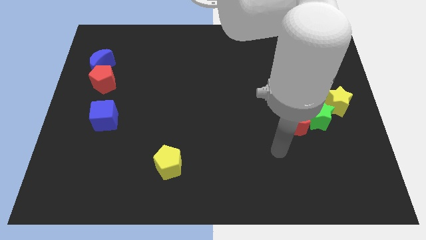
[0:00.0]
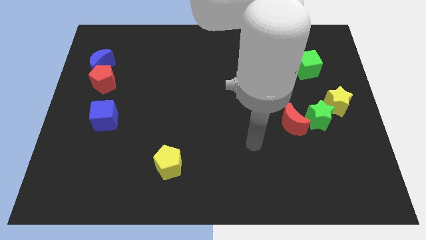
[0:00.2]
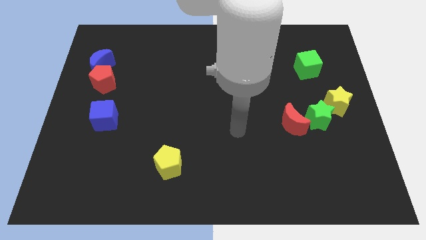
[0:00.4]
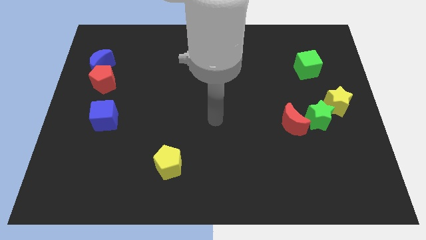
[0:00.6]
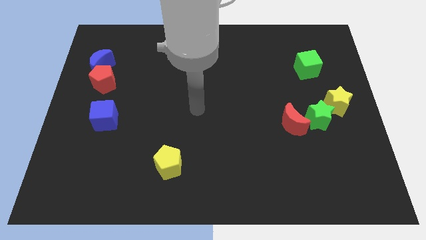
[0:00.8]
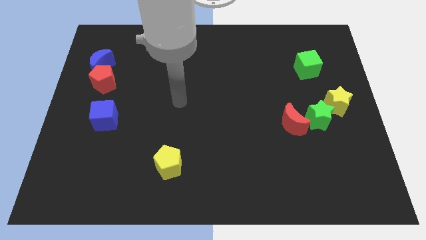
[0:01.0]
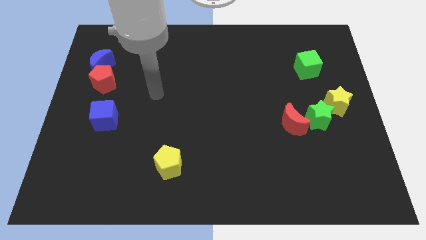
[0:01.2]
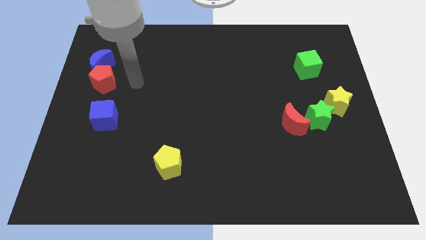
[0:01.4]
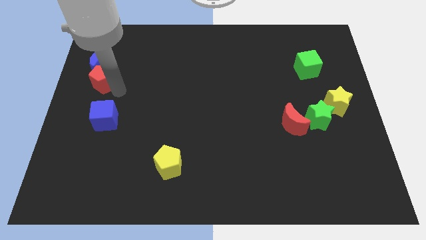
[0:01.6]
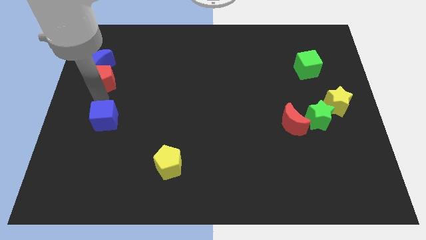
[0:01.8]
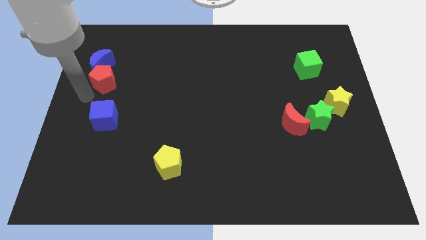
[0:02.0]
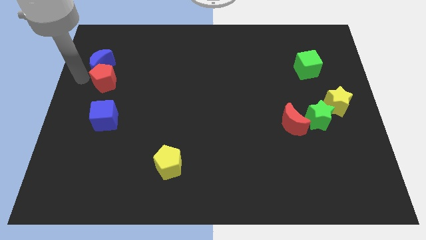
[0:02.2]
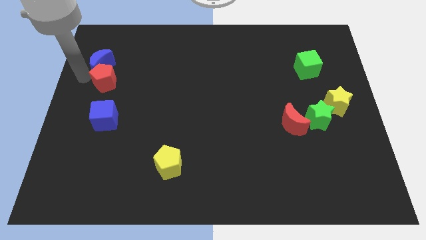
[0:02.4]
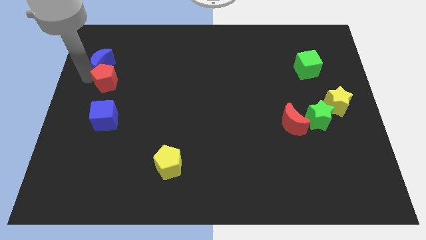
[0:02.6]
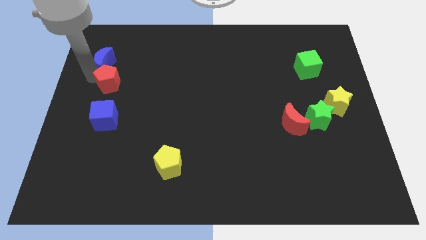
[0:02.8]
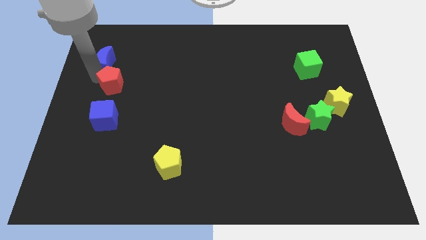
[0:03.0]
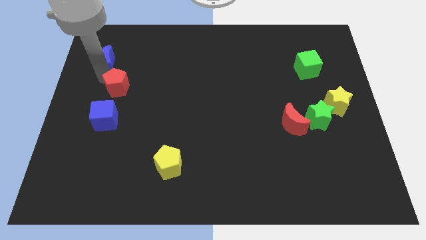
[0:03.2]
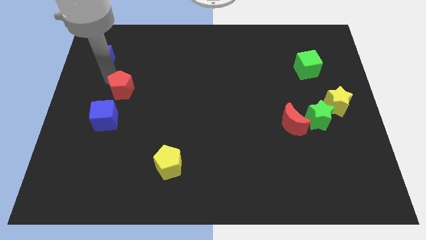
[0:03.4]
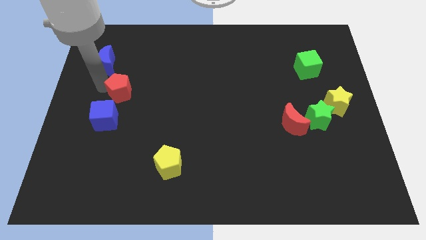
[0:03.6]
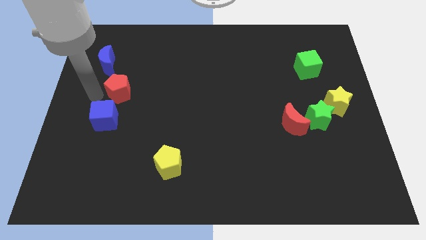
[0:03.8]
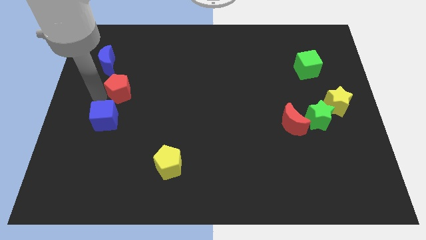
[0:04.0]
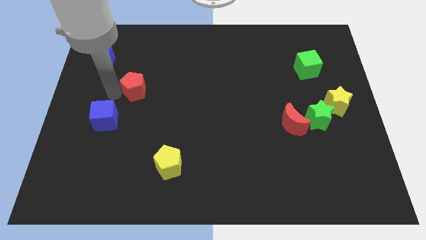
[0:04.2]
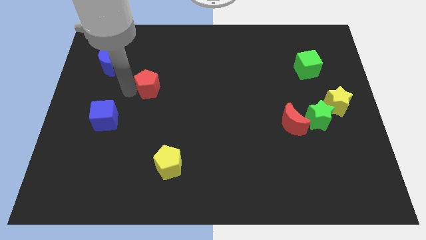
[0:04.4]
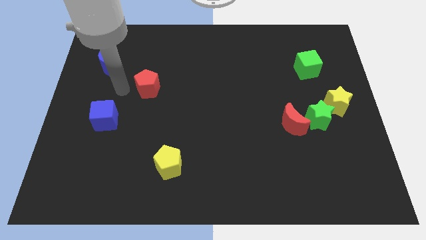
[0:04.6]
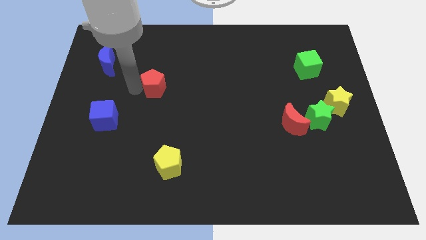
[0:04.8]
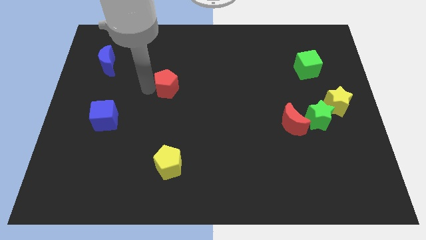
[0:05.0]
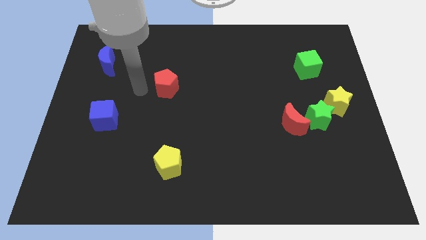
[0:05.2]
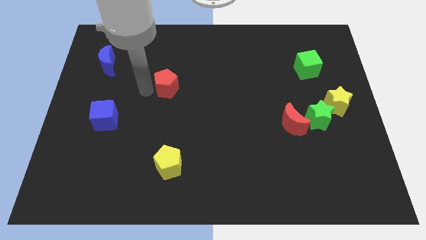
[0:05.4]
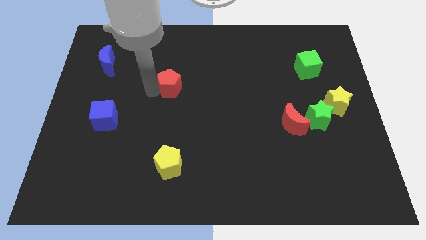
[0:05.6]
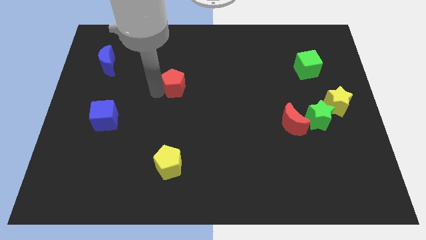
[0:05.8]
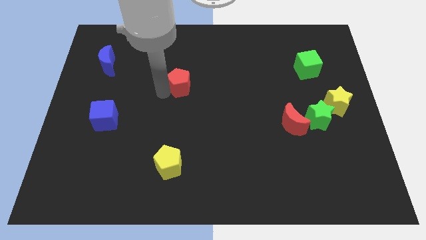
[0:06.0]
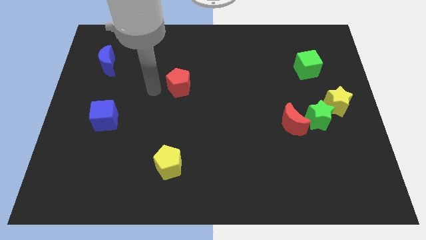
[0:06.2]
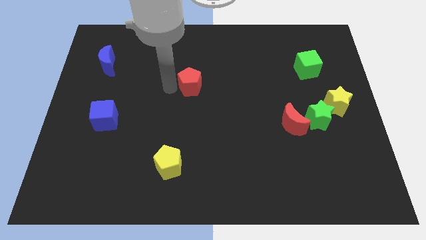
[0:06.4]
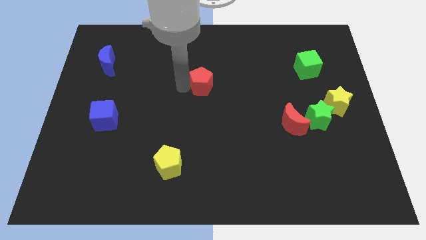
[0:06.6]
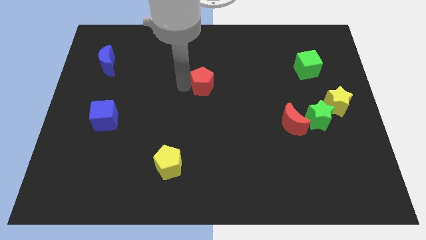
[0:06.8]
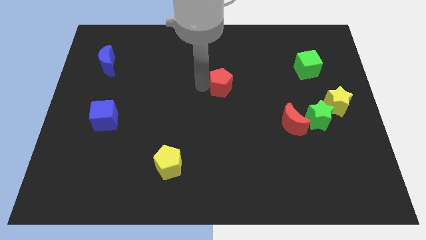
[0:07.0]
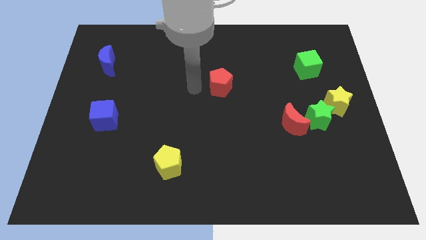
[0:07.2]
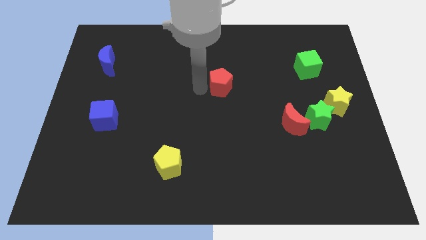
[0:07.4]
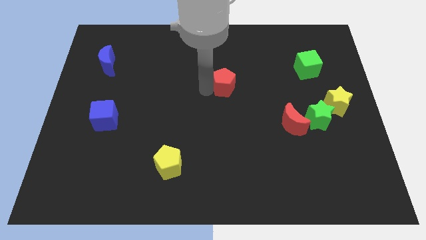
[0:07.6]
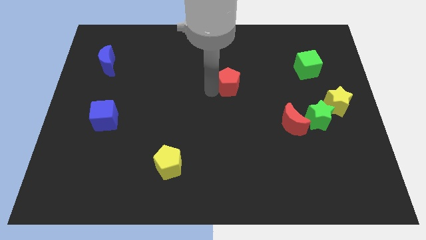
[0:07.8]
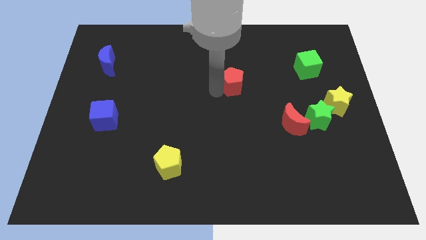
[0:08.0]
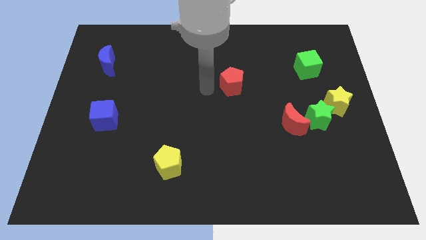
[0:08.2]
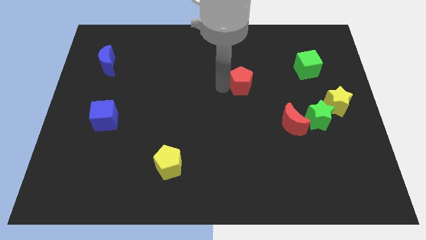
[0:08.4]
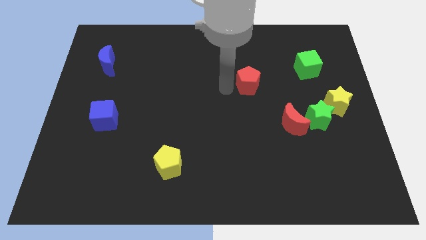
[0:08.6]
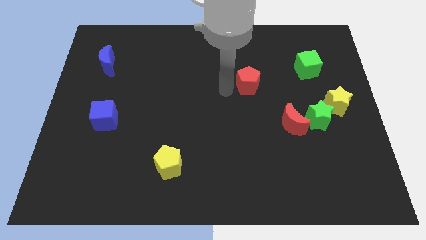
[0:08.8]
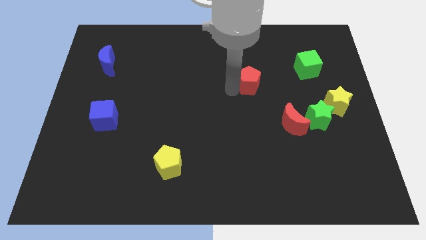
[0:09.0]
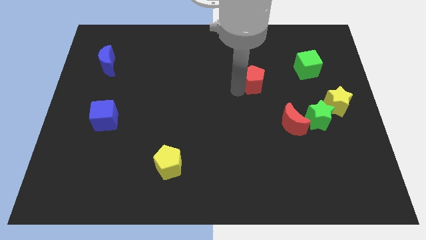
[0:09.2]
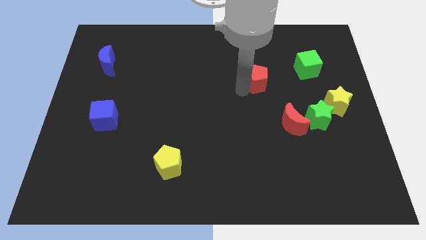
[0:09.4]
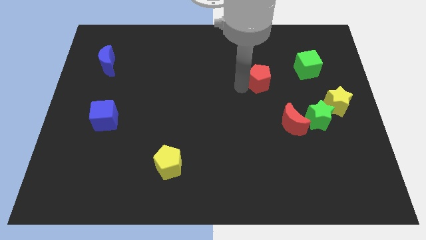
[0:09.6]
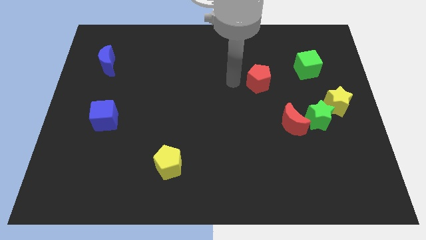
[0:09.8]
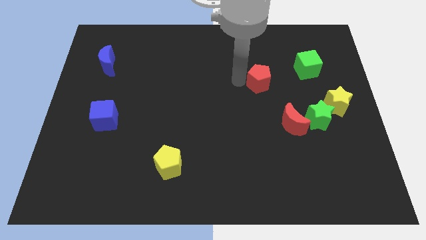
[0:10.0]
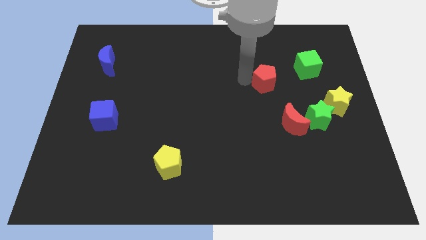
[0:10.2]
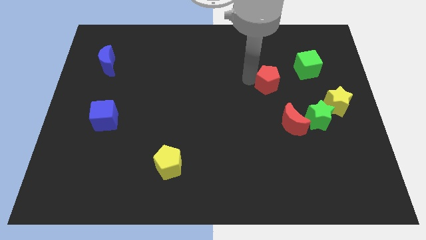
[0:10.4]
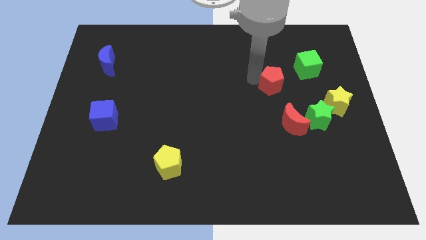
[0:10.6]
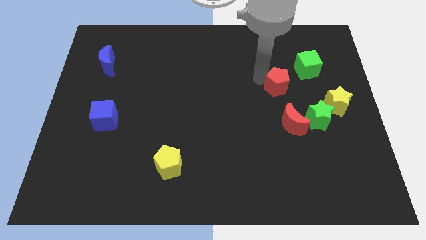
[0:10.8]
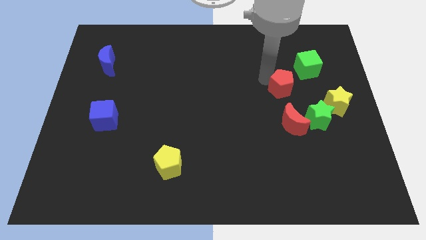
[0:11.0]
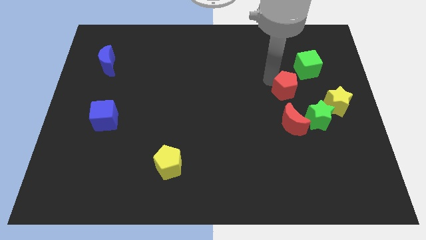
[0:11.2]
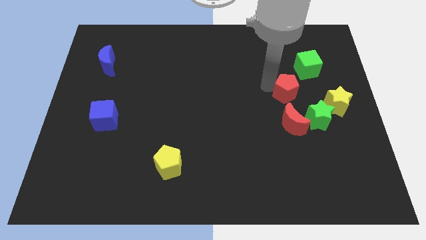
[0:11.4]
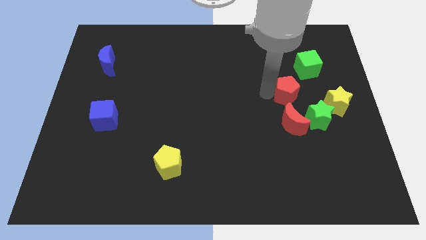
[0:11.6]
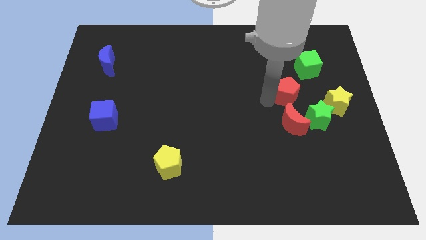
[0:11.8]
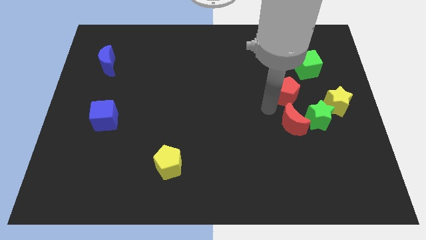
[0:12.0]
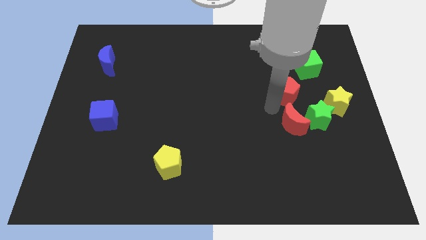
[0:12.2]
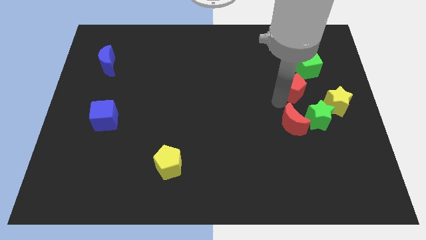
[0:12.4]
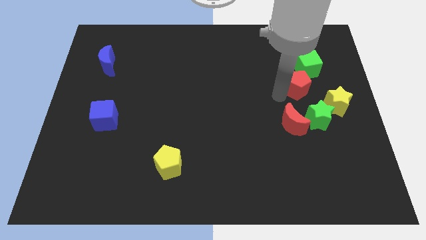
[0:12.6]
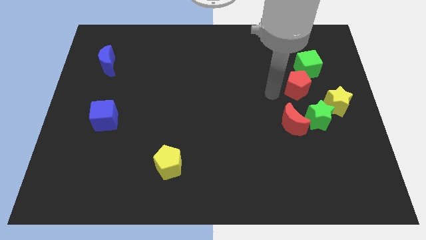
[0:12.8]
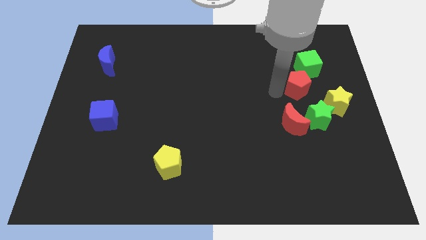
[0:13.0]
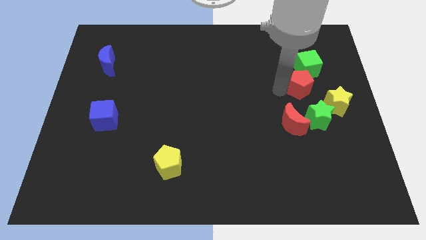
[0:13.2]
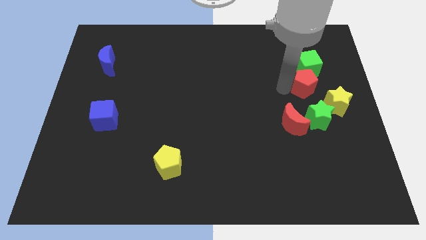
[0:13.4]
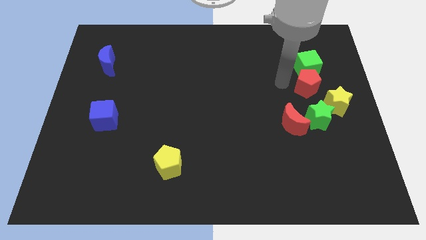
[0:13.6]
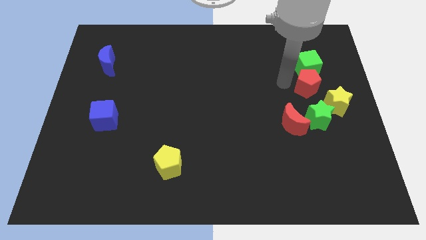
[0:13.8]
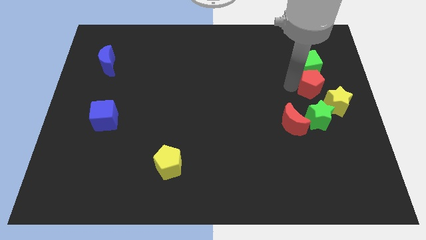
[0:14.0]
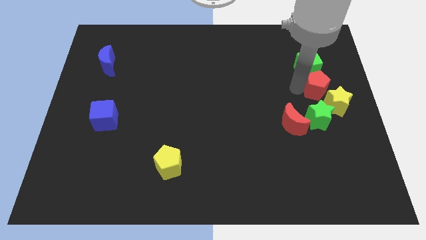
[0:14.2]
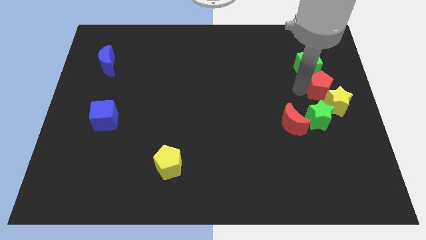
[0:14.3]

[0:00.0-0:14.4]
slide the red pentagon to the right side of the board
